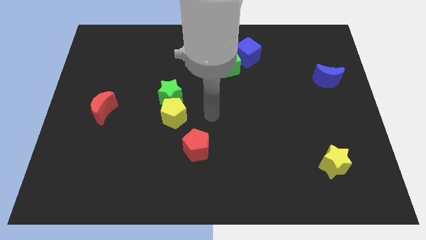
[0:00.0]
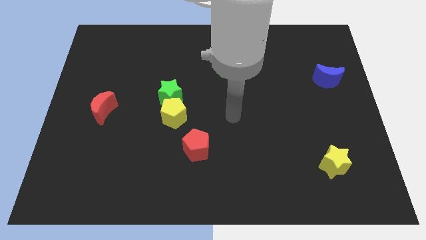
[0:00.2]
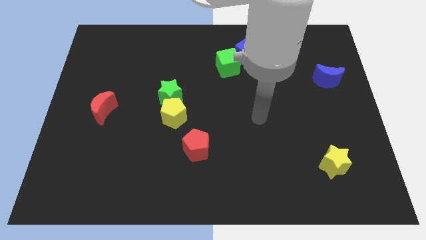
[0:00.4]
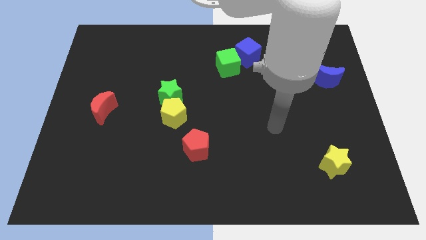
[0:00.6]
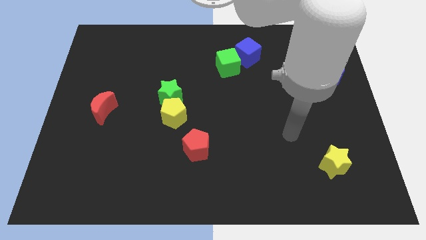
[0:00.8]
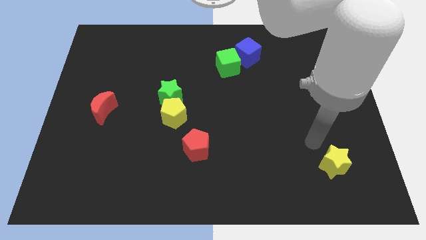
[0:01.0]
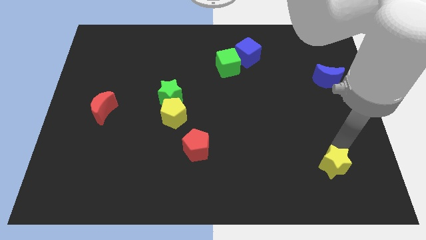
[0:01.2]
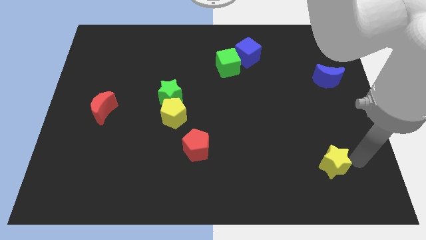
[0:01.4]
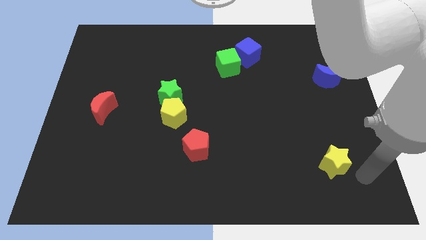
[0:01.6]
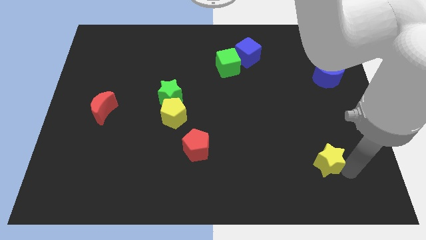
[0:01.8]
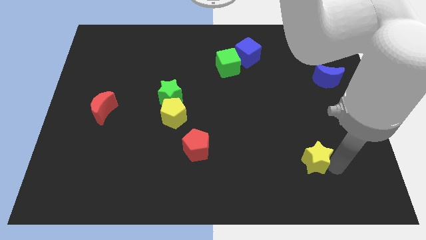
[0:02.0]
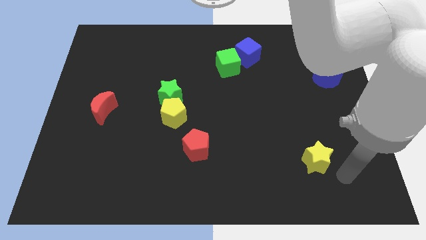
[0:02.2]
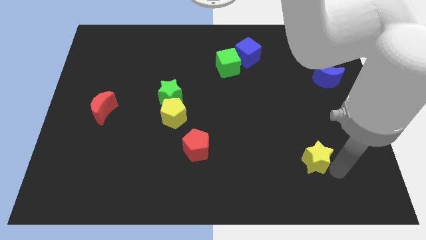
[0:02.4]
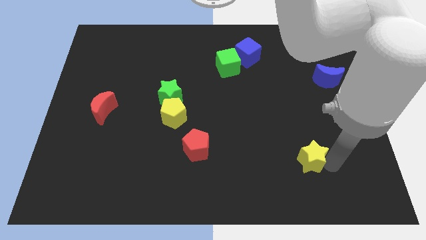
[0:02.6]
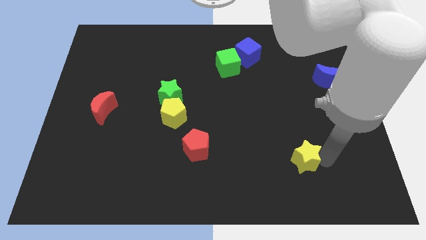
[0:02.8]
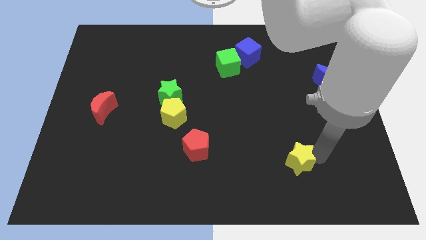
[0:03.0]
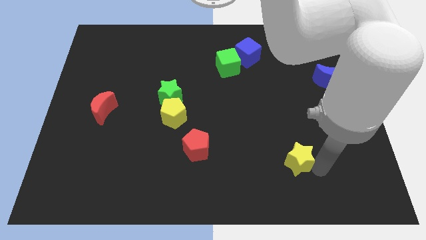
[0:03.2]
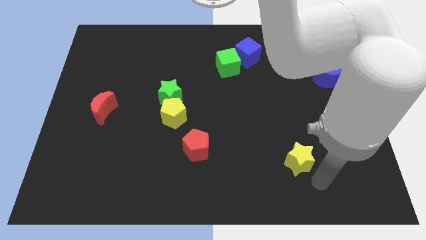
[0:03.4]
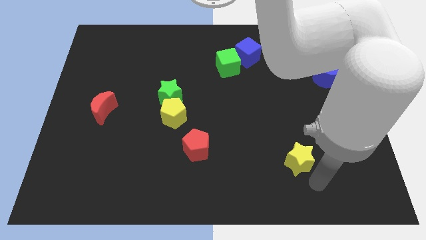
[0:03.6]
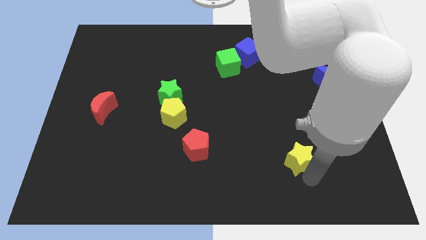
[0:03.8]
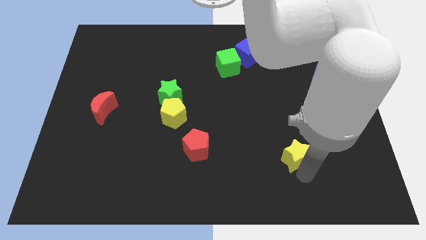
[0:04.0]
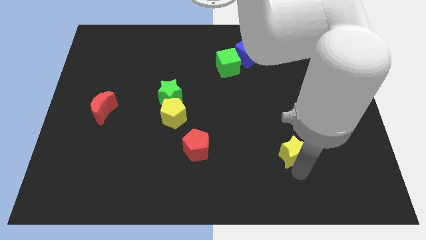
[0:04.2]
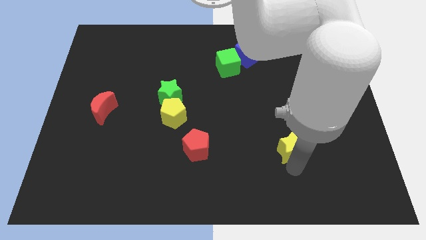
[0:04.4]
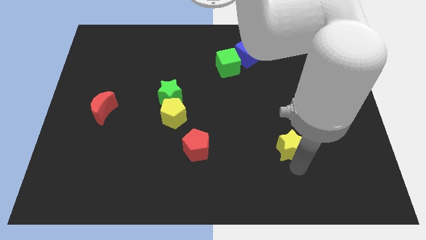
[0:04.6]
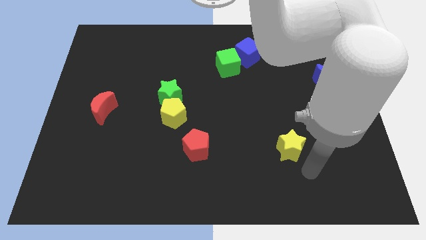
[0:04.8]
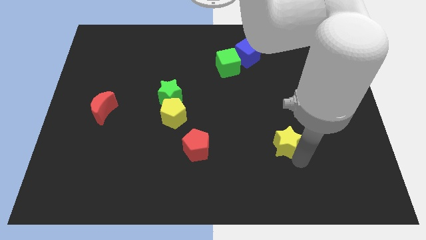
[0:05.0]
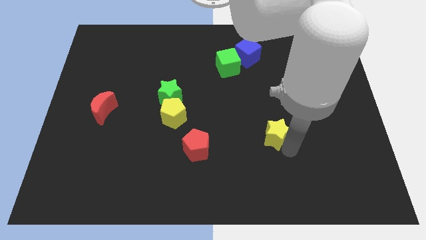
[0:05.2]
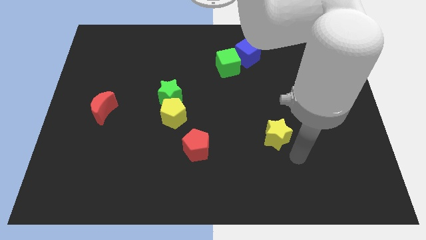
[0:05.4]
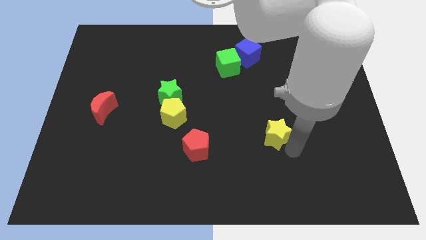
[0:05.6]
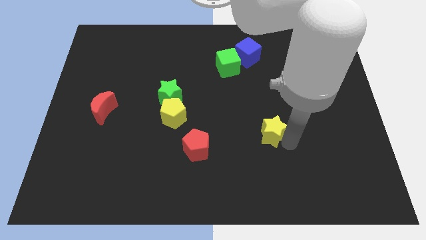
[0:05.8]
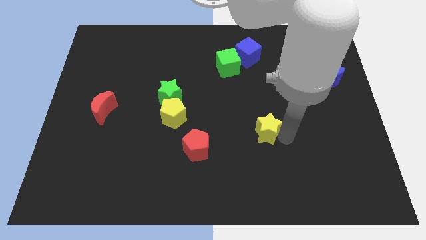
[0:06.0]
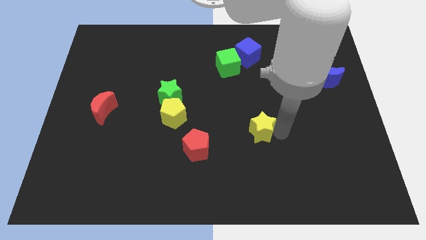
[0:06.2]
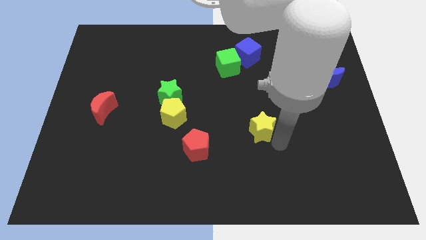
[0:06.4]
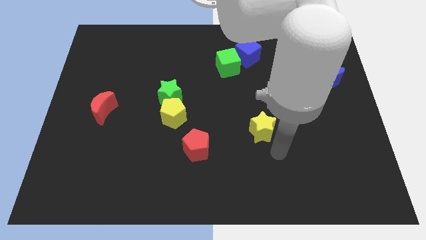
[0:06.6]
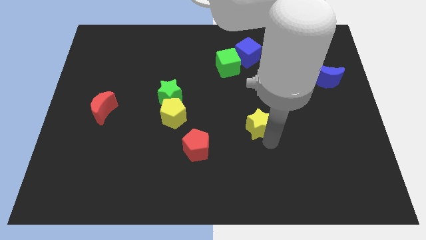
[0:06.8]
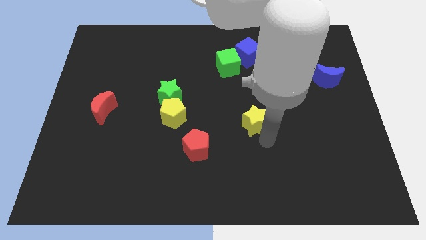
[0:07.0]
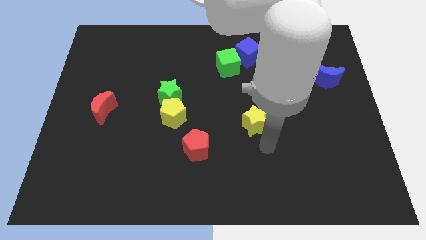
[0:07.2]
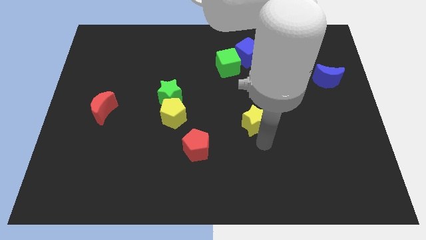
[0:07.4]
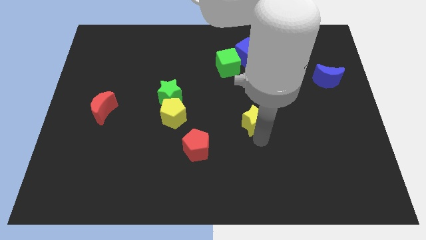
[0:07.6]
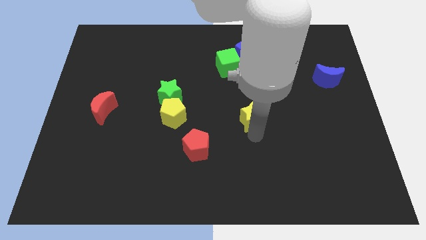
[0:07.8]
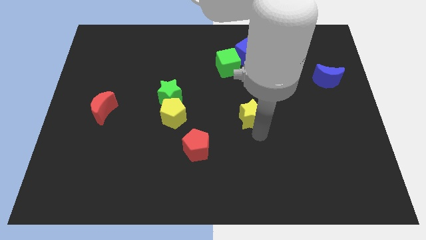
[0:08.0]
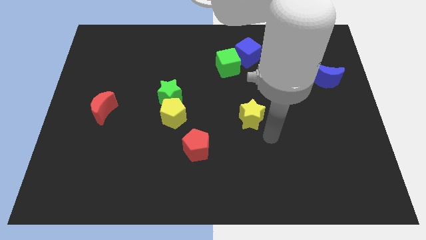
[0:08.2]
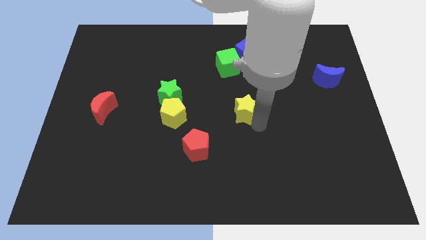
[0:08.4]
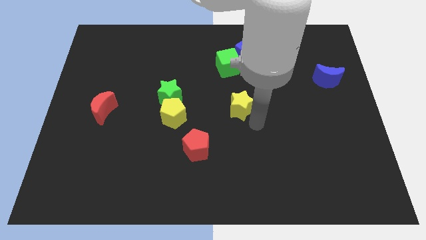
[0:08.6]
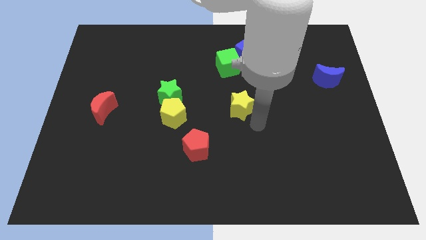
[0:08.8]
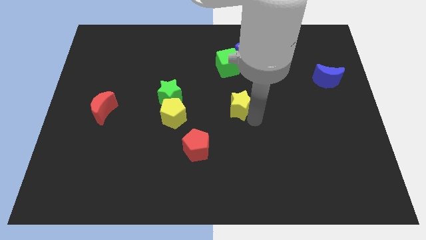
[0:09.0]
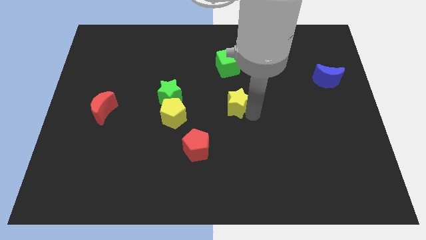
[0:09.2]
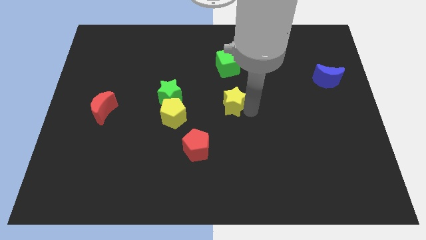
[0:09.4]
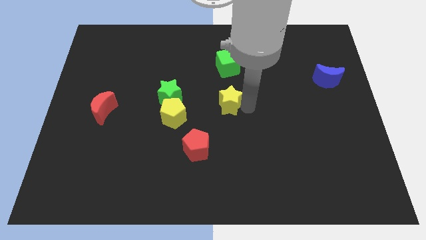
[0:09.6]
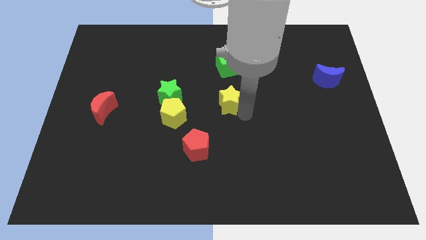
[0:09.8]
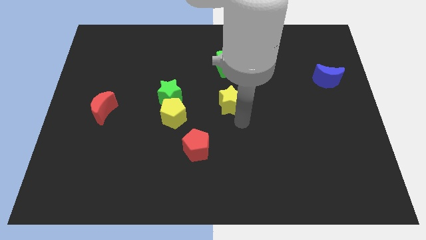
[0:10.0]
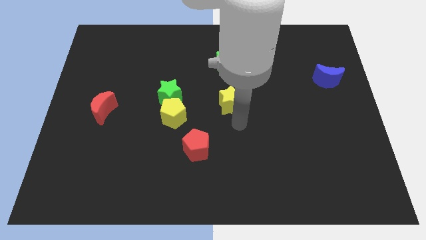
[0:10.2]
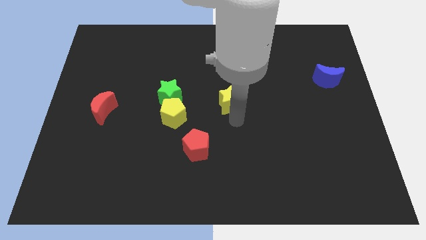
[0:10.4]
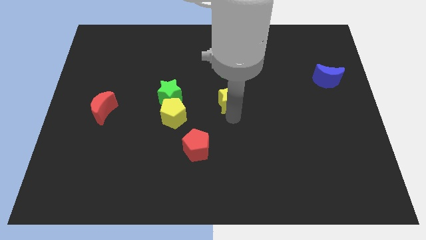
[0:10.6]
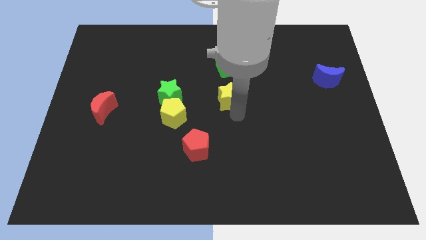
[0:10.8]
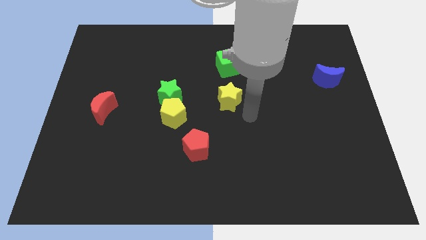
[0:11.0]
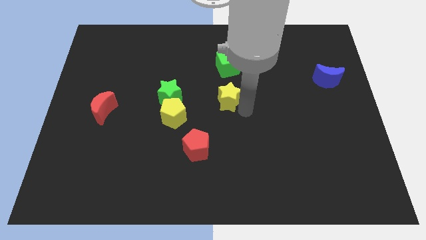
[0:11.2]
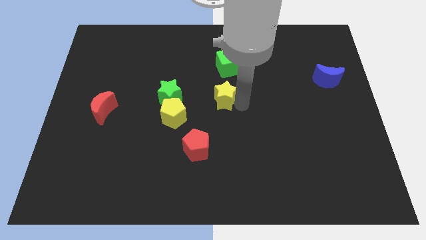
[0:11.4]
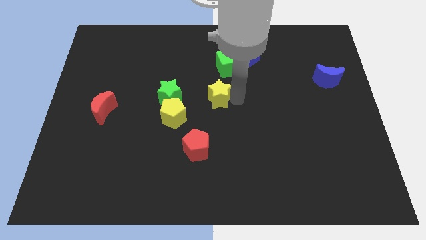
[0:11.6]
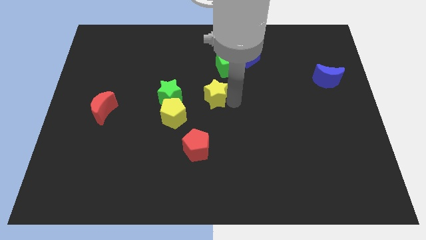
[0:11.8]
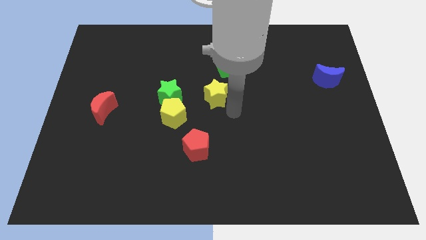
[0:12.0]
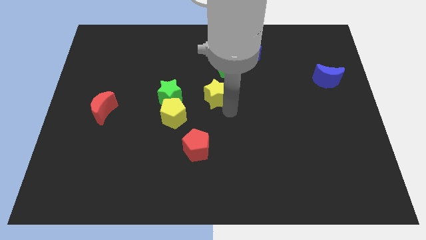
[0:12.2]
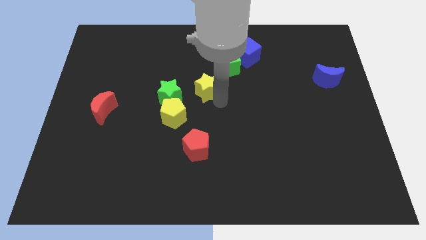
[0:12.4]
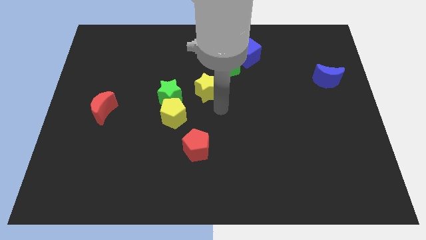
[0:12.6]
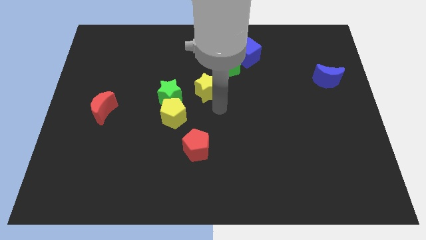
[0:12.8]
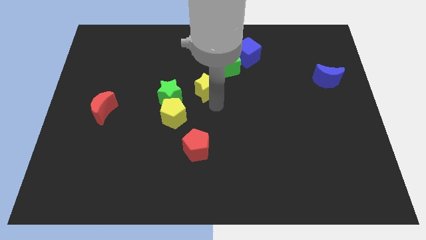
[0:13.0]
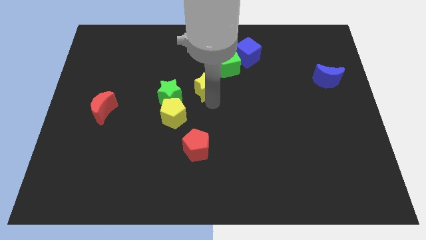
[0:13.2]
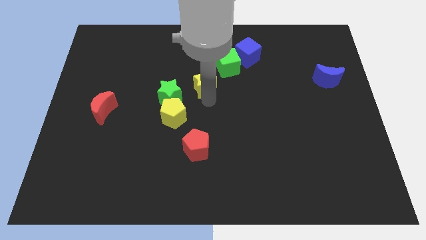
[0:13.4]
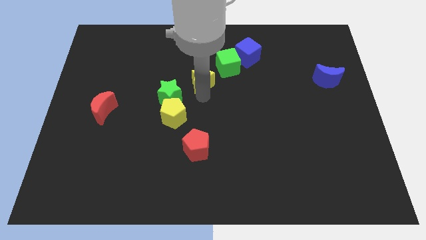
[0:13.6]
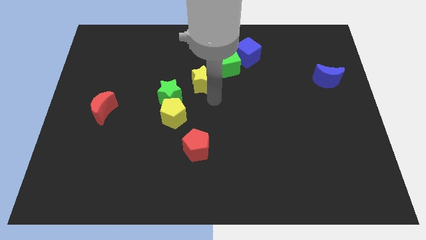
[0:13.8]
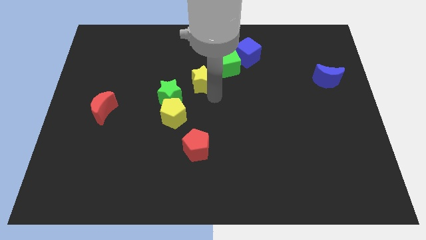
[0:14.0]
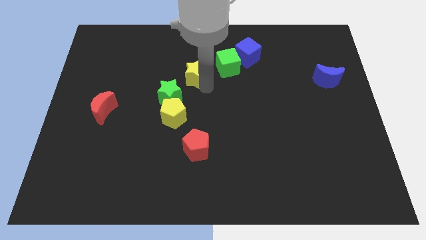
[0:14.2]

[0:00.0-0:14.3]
put the yellow star to the left of the green cube

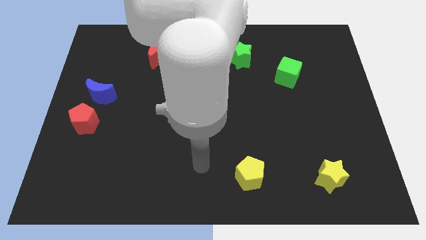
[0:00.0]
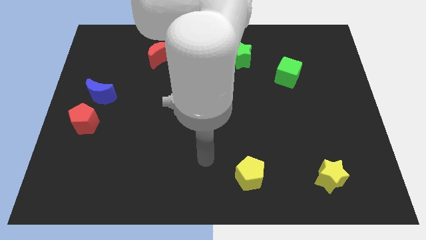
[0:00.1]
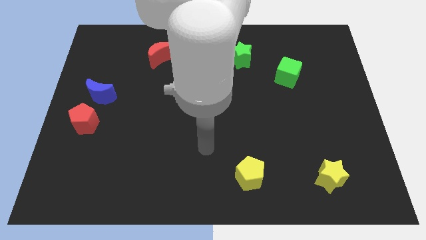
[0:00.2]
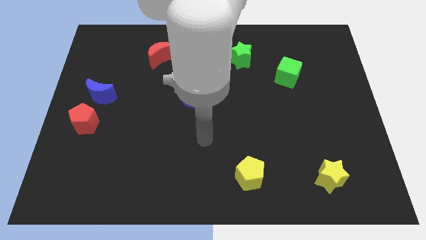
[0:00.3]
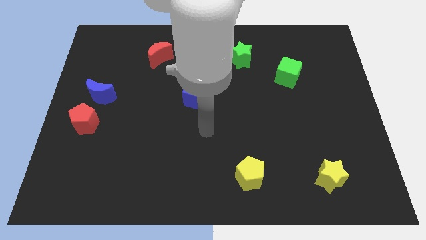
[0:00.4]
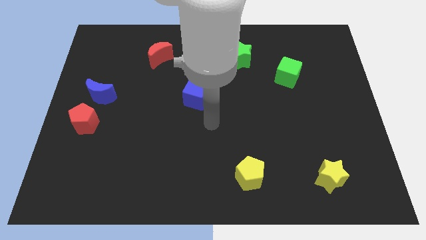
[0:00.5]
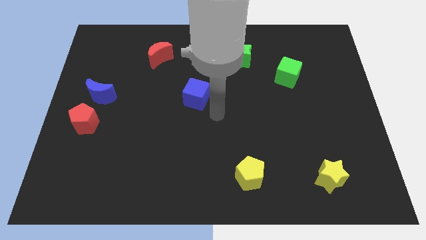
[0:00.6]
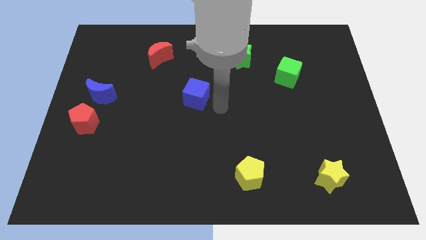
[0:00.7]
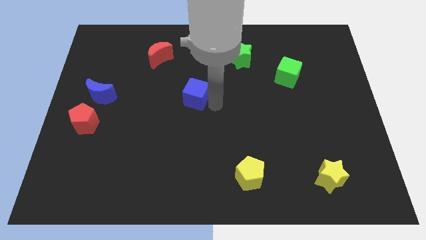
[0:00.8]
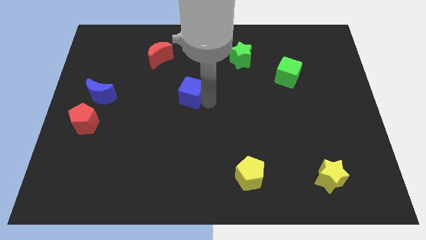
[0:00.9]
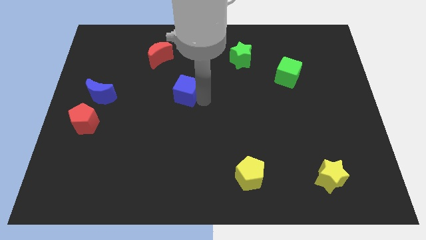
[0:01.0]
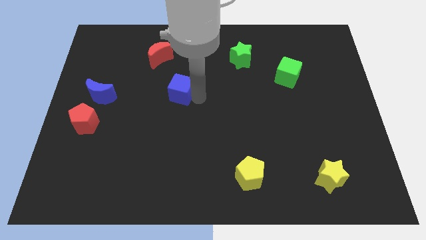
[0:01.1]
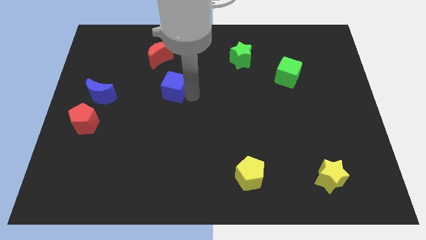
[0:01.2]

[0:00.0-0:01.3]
move the blue cube to the bottom of the red moon
